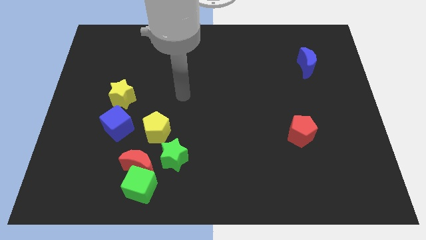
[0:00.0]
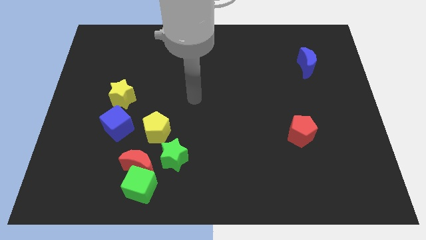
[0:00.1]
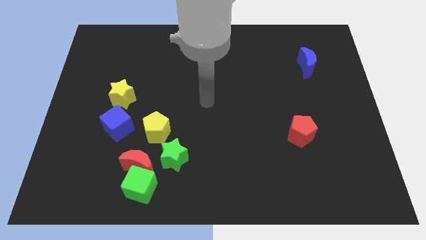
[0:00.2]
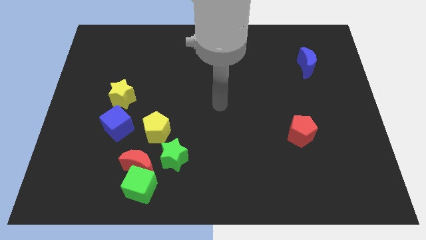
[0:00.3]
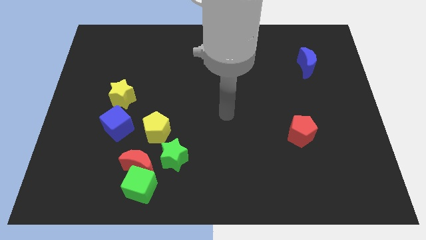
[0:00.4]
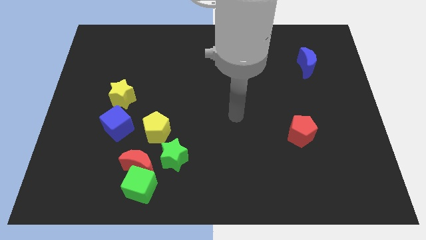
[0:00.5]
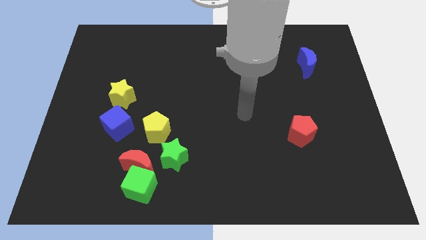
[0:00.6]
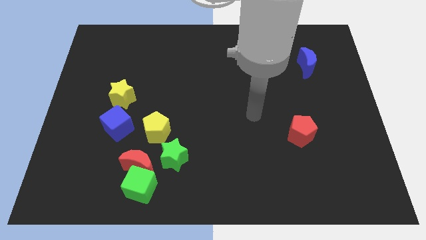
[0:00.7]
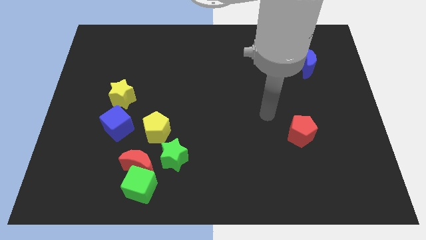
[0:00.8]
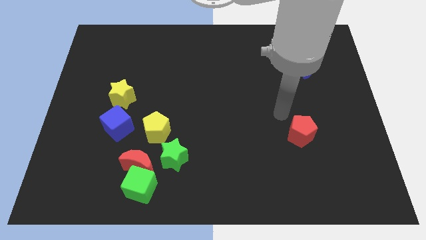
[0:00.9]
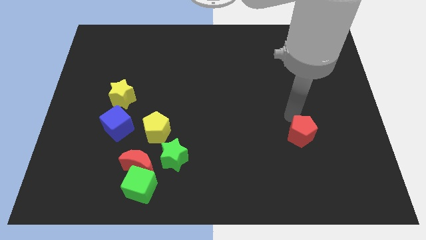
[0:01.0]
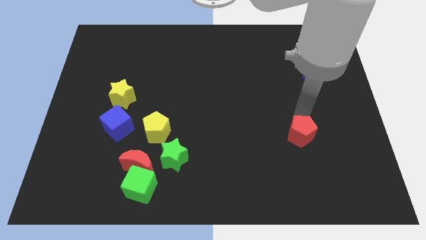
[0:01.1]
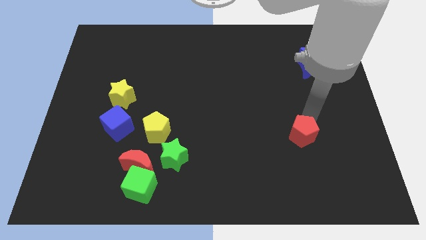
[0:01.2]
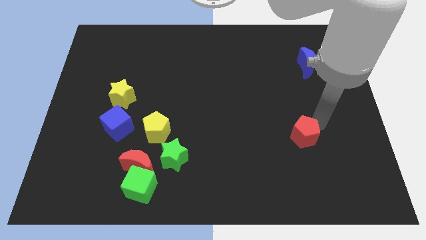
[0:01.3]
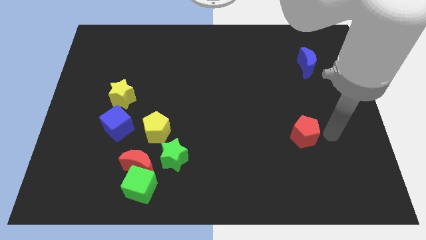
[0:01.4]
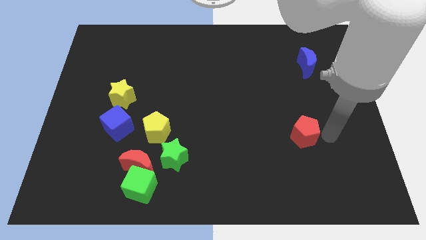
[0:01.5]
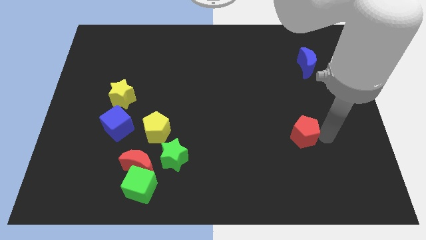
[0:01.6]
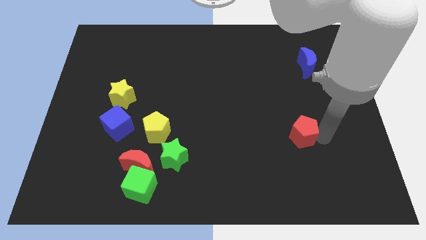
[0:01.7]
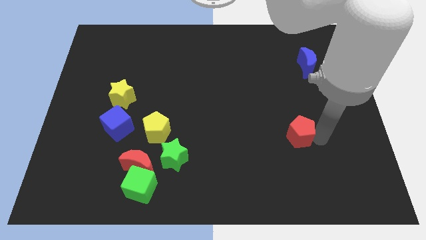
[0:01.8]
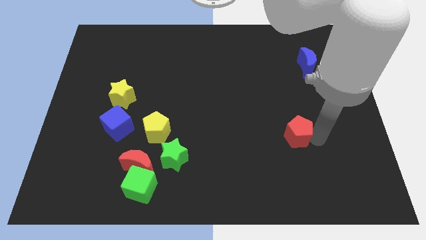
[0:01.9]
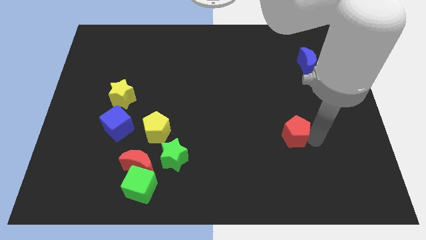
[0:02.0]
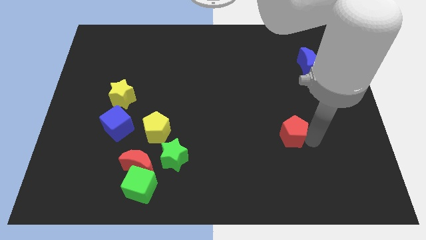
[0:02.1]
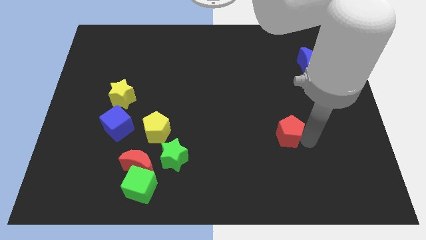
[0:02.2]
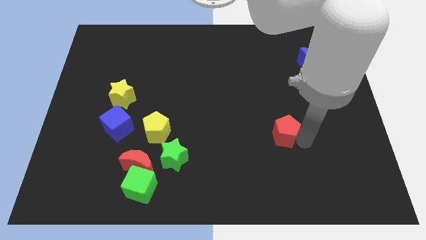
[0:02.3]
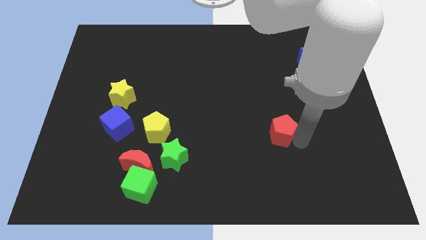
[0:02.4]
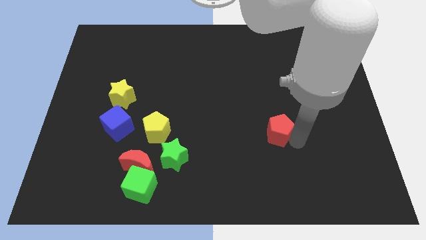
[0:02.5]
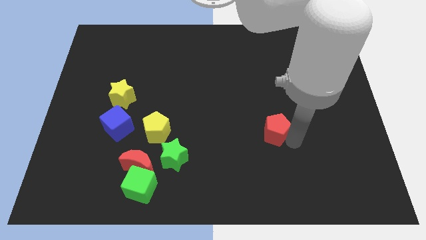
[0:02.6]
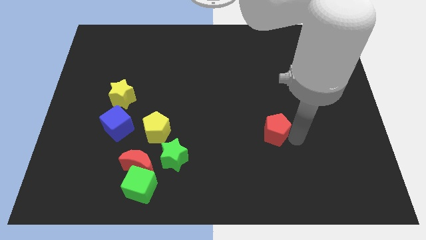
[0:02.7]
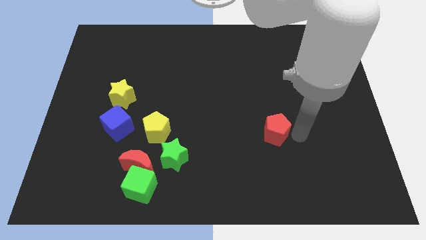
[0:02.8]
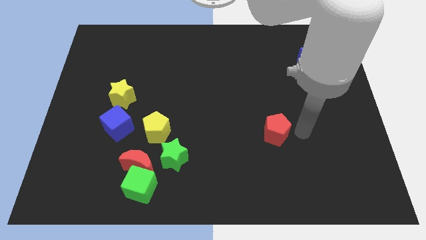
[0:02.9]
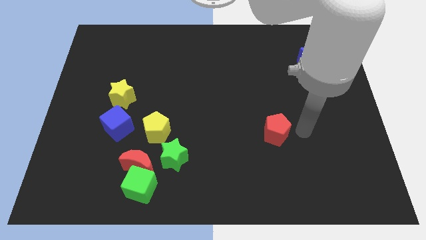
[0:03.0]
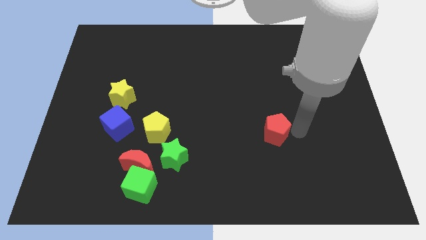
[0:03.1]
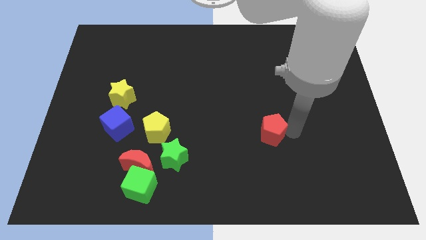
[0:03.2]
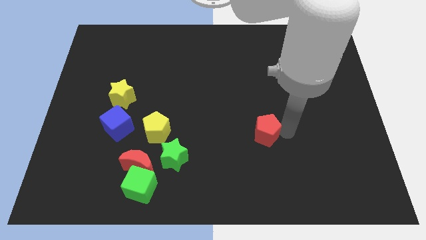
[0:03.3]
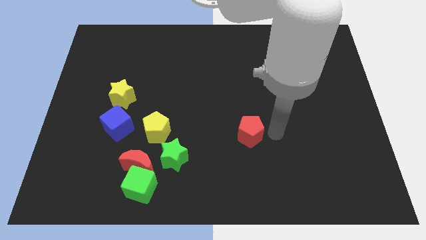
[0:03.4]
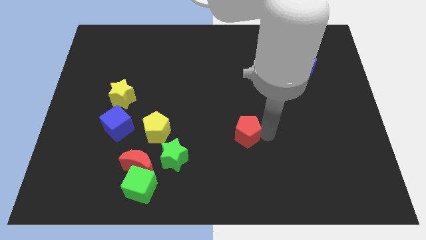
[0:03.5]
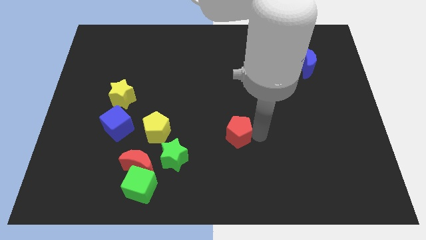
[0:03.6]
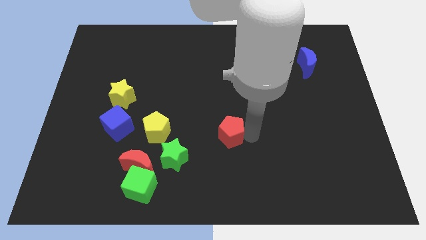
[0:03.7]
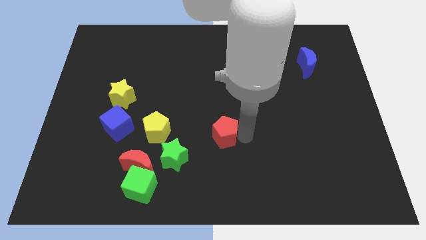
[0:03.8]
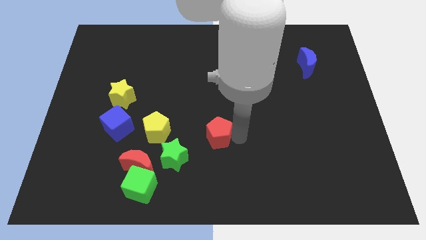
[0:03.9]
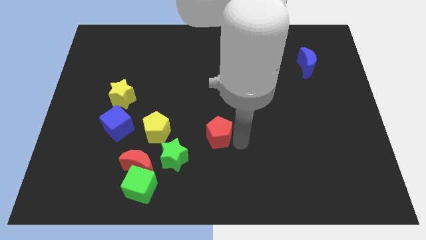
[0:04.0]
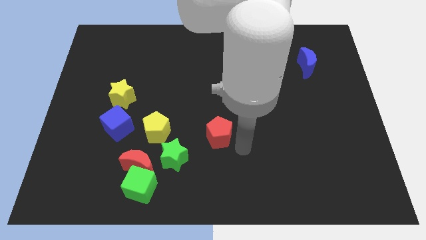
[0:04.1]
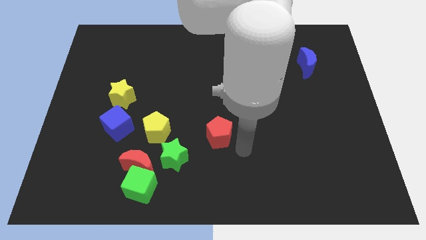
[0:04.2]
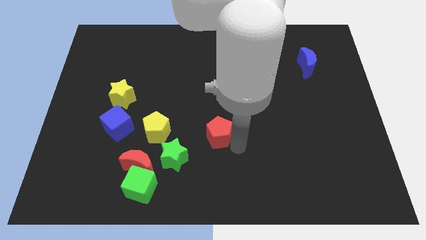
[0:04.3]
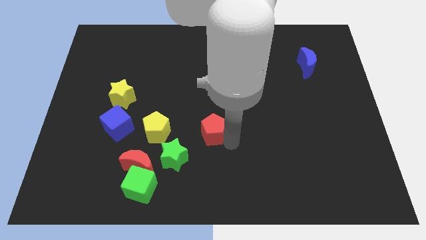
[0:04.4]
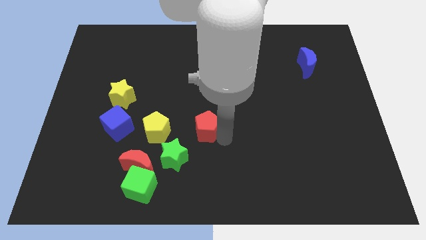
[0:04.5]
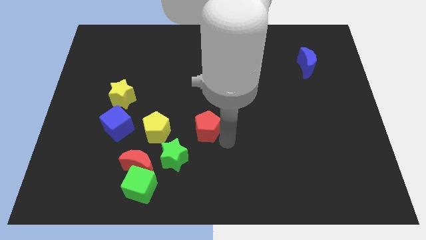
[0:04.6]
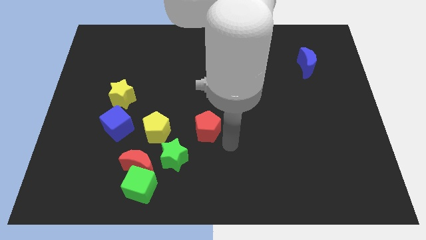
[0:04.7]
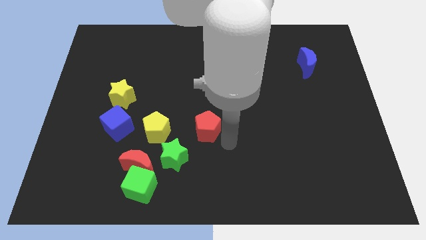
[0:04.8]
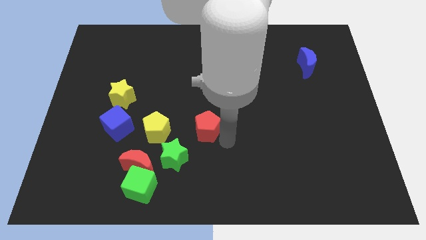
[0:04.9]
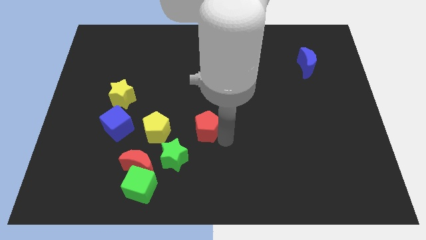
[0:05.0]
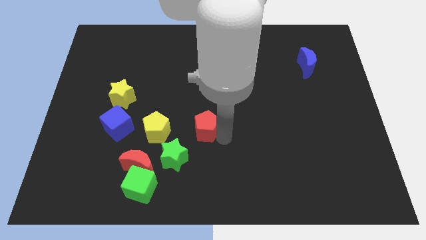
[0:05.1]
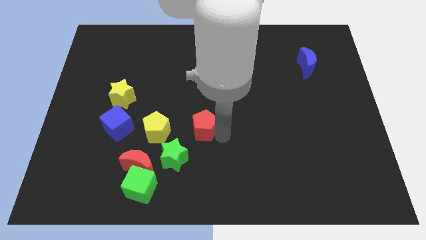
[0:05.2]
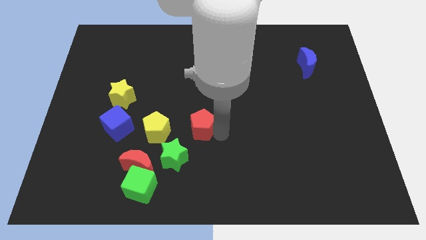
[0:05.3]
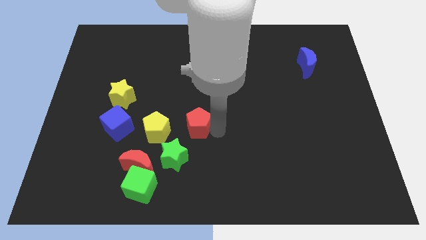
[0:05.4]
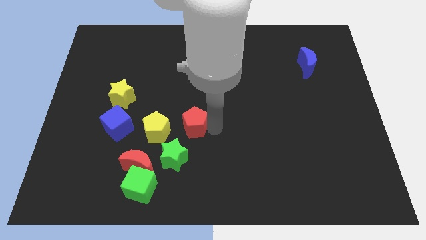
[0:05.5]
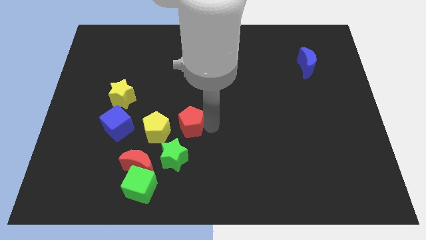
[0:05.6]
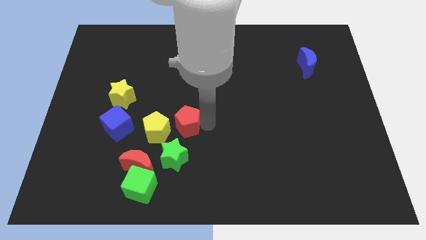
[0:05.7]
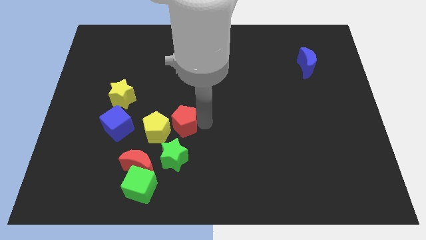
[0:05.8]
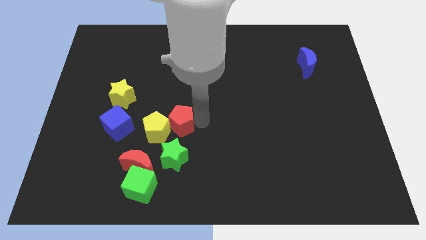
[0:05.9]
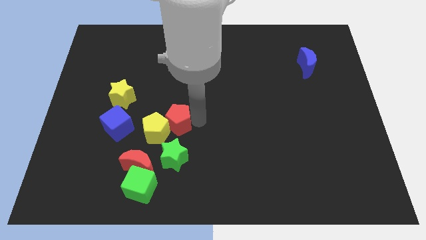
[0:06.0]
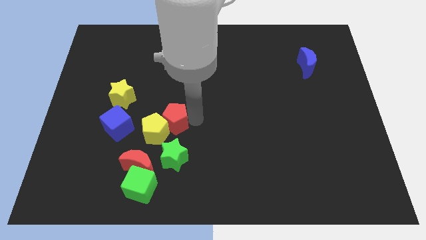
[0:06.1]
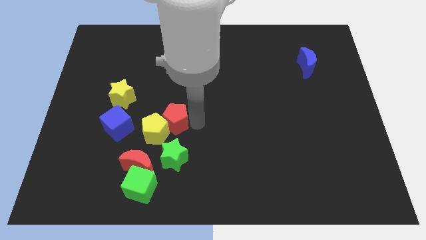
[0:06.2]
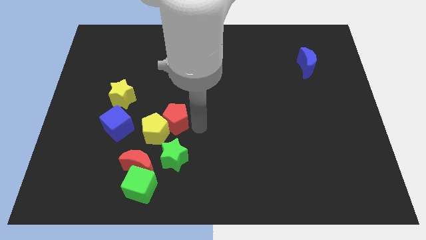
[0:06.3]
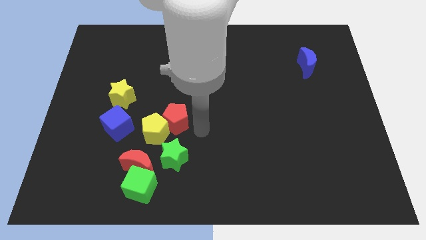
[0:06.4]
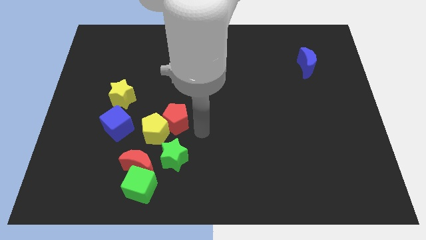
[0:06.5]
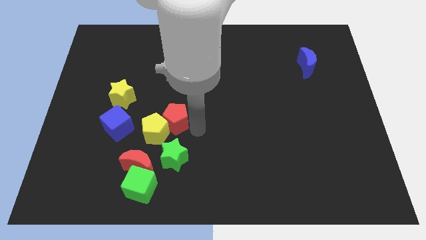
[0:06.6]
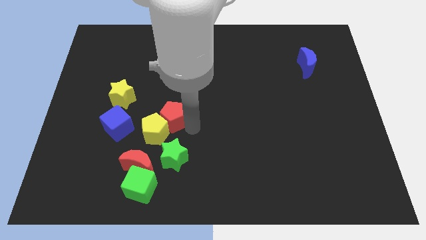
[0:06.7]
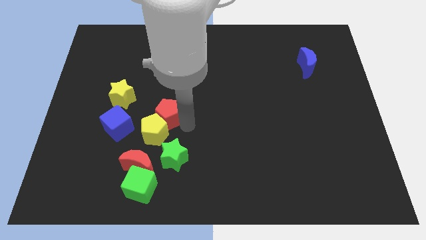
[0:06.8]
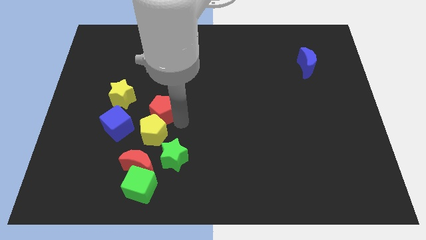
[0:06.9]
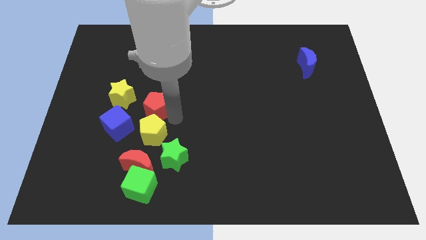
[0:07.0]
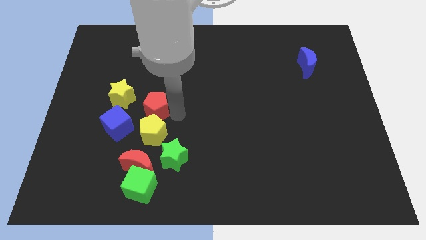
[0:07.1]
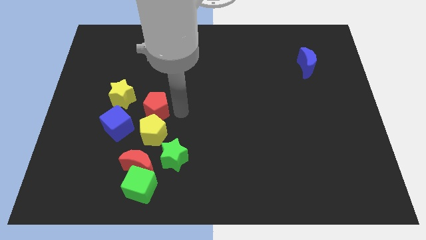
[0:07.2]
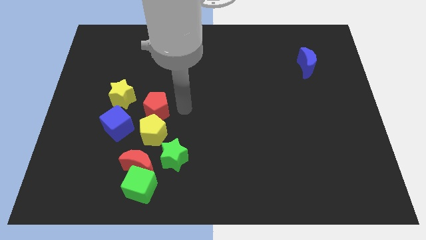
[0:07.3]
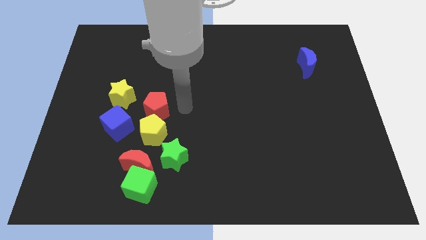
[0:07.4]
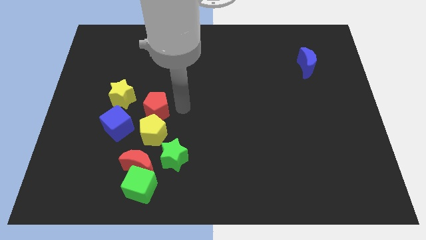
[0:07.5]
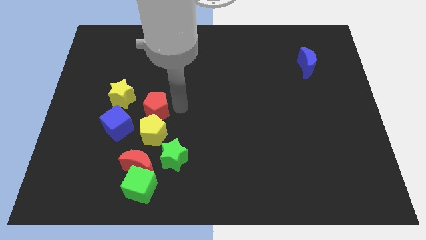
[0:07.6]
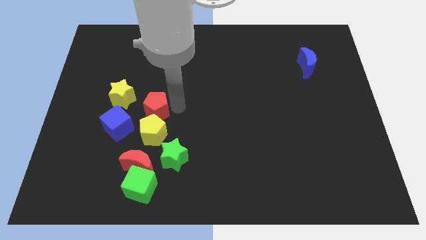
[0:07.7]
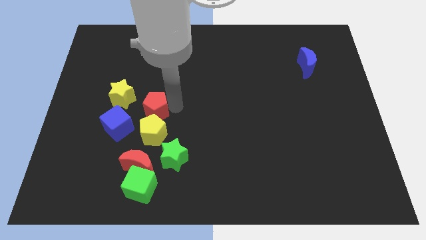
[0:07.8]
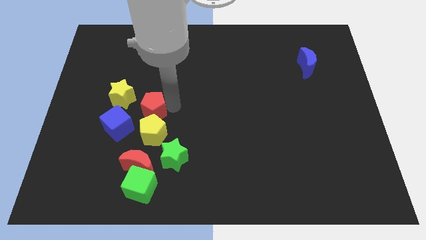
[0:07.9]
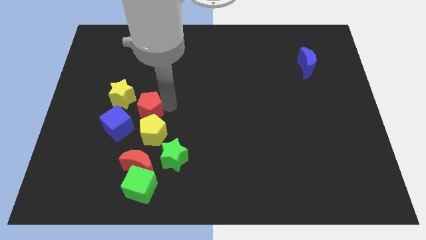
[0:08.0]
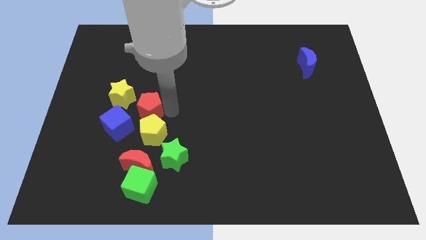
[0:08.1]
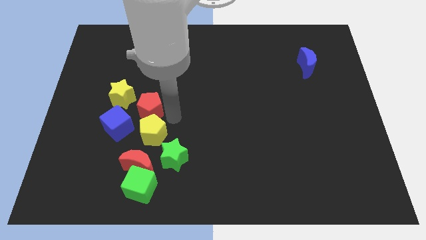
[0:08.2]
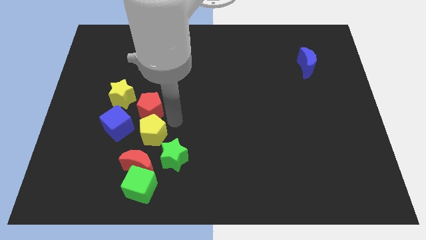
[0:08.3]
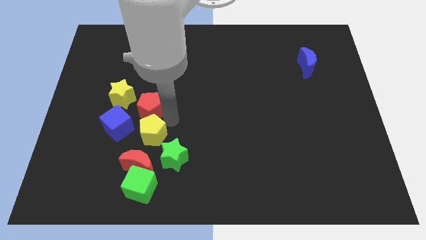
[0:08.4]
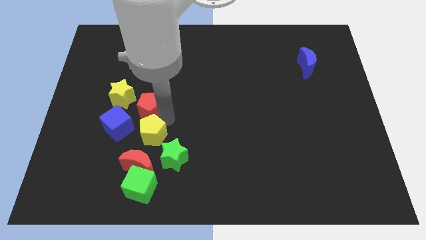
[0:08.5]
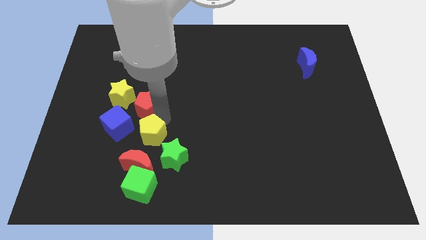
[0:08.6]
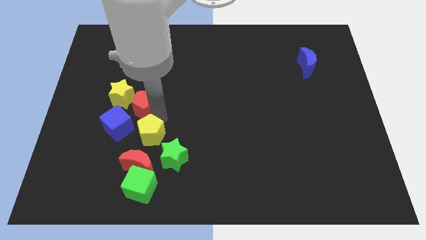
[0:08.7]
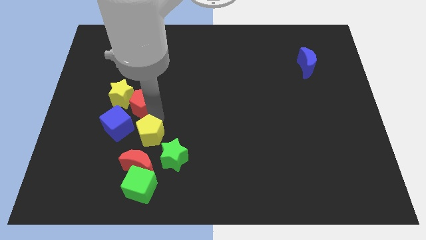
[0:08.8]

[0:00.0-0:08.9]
slide the red pentagon to the yellow star
